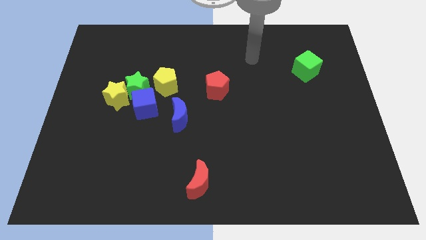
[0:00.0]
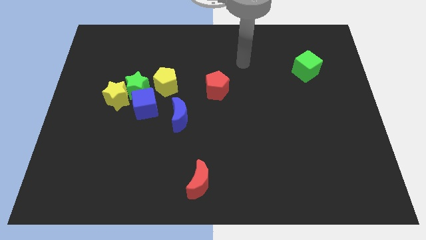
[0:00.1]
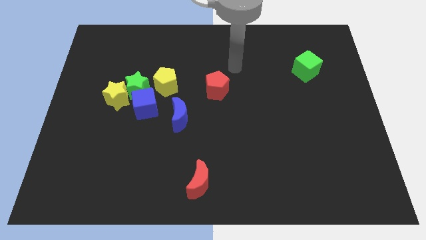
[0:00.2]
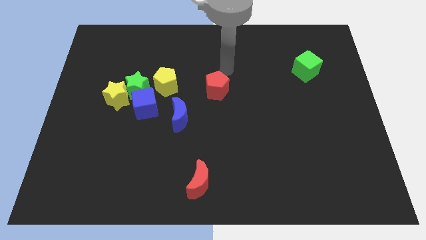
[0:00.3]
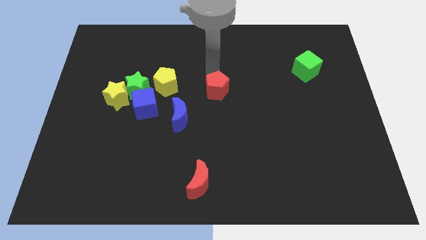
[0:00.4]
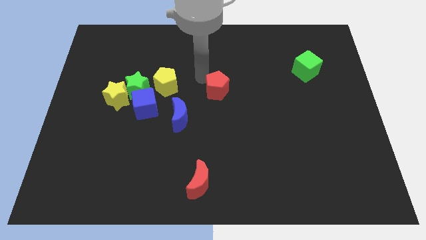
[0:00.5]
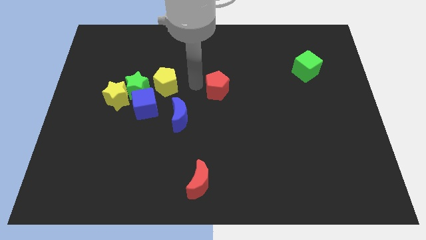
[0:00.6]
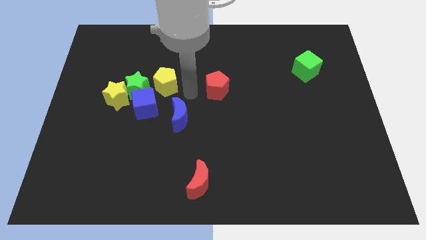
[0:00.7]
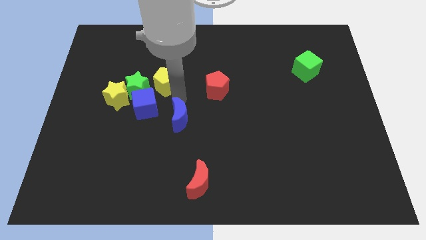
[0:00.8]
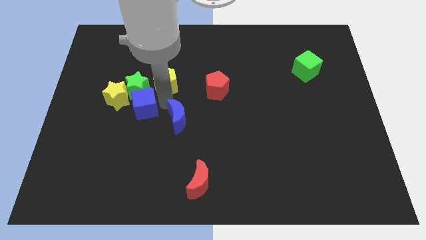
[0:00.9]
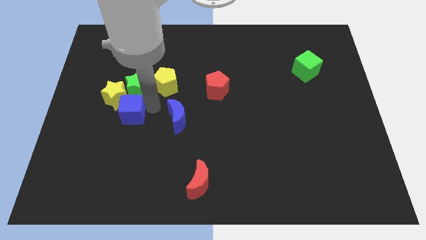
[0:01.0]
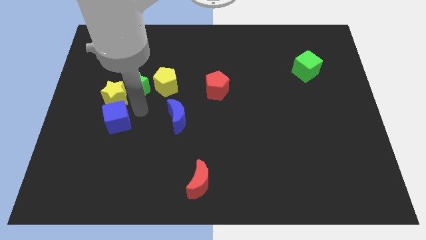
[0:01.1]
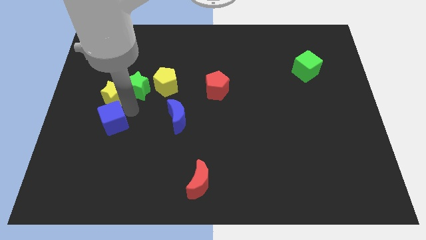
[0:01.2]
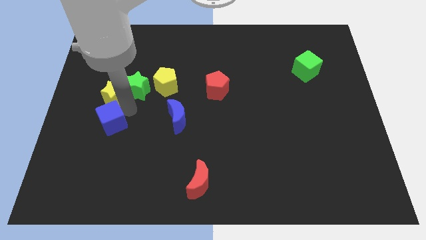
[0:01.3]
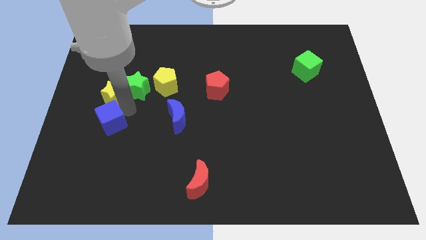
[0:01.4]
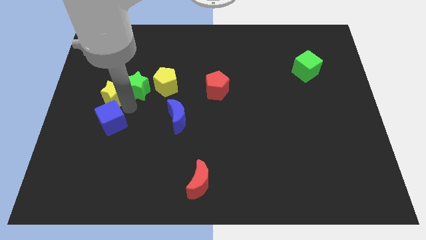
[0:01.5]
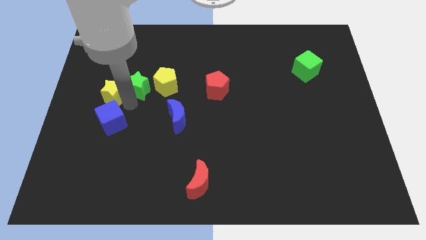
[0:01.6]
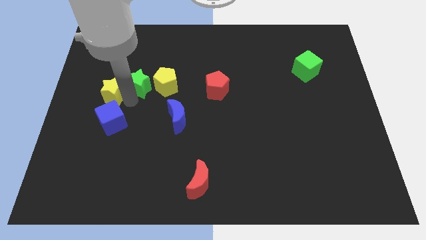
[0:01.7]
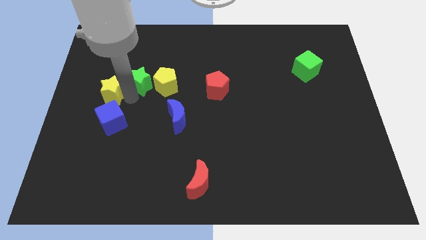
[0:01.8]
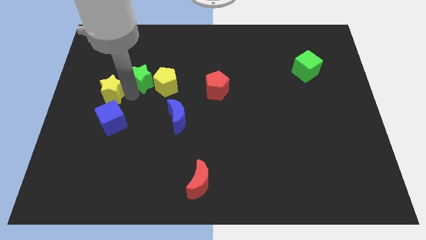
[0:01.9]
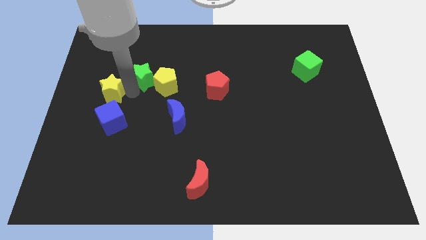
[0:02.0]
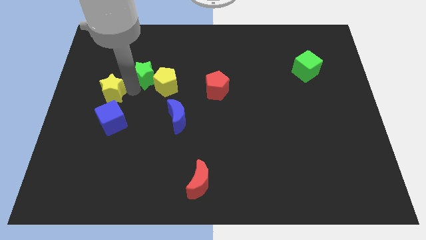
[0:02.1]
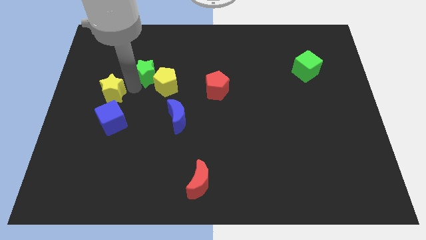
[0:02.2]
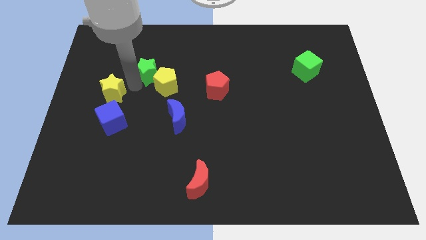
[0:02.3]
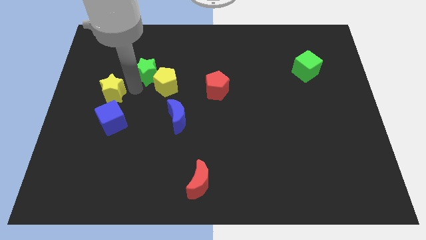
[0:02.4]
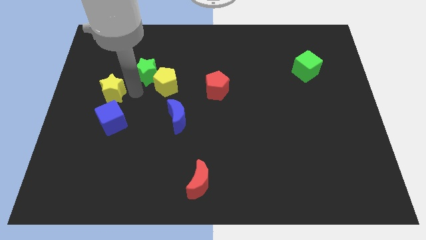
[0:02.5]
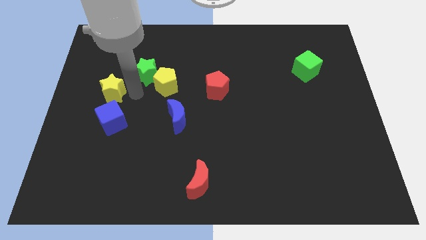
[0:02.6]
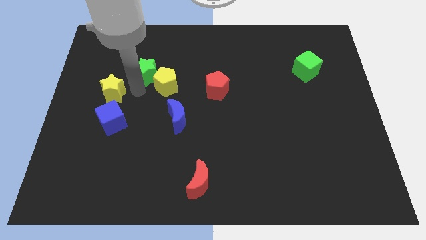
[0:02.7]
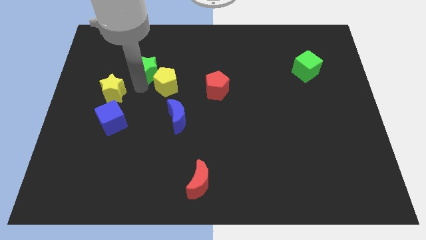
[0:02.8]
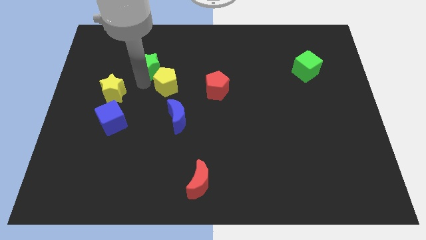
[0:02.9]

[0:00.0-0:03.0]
separate the green star from the group of blocks

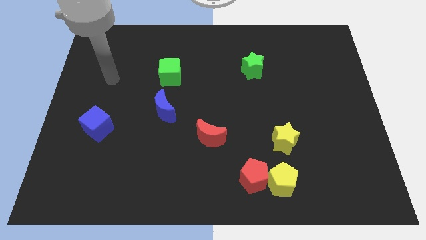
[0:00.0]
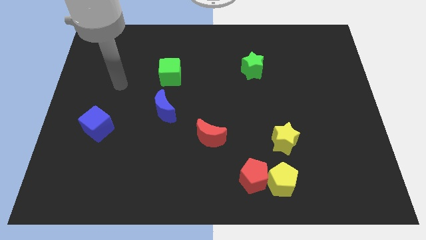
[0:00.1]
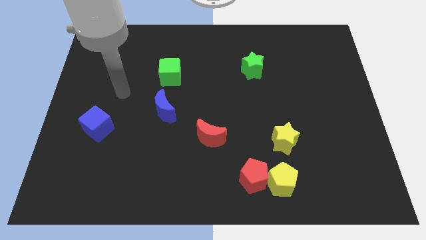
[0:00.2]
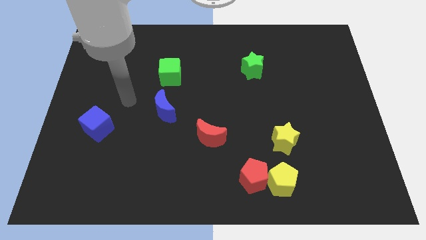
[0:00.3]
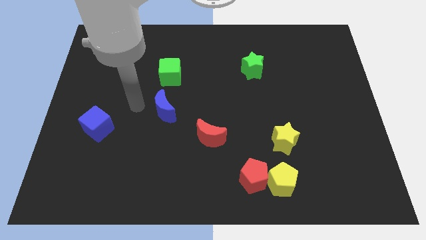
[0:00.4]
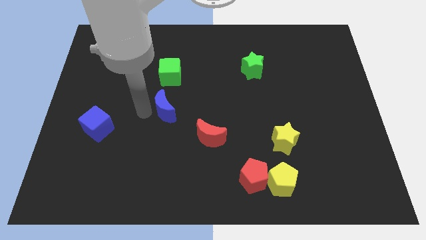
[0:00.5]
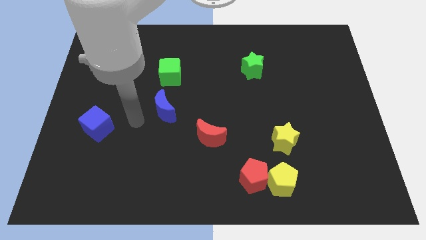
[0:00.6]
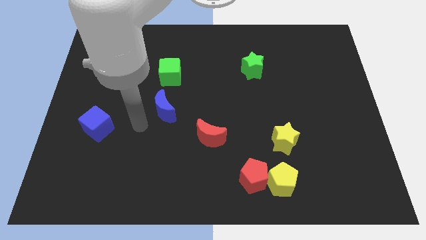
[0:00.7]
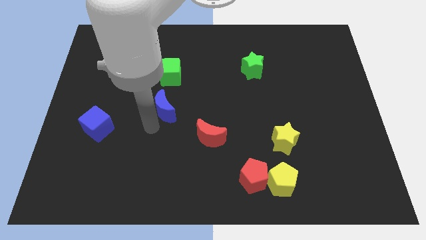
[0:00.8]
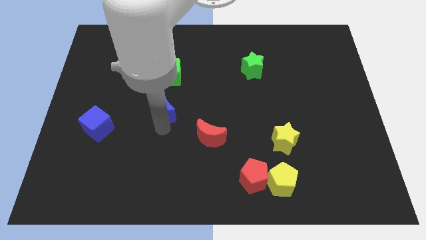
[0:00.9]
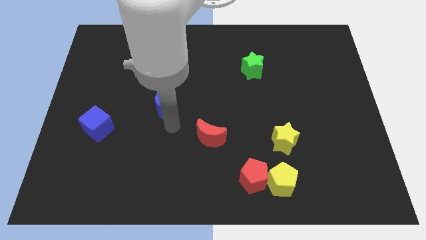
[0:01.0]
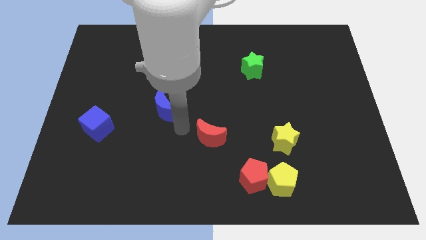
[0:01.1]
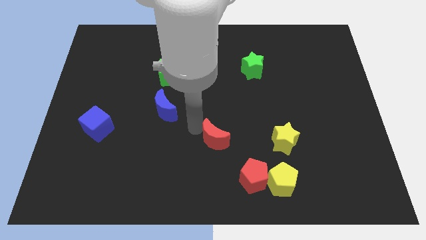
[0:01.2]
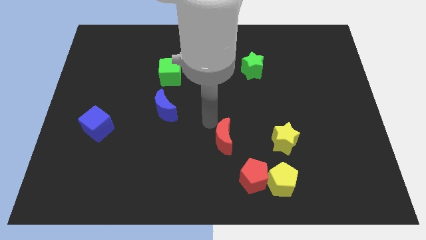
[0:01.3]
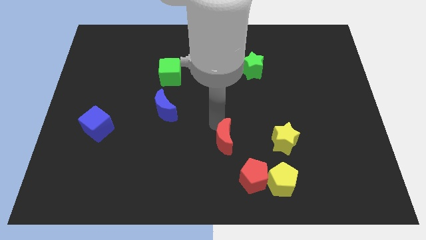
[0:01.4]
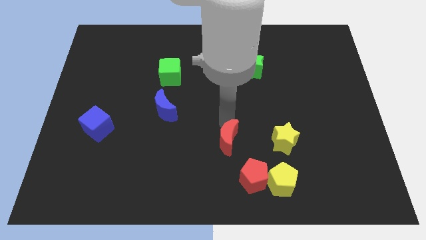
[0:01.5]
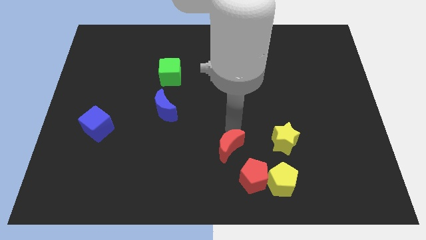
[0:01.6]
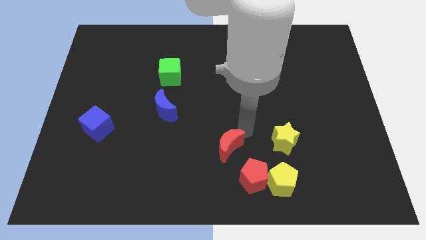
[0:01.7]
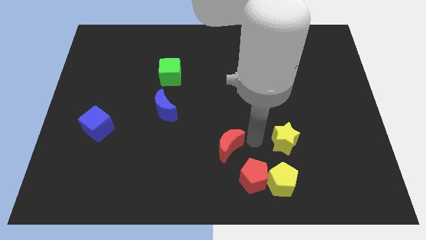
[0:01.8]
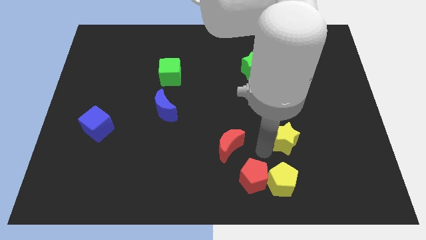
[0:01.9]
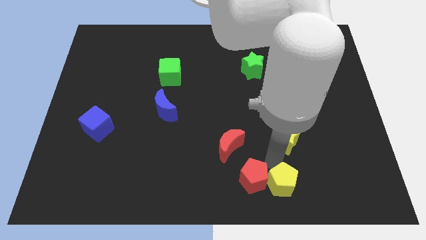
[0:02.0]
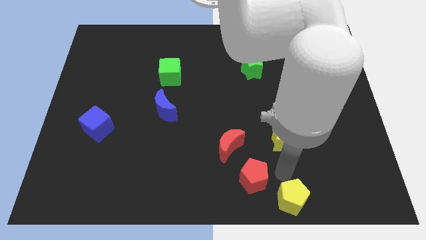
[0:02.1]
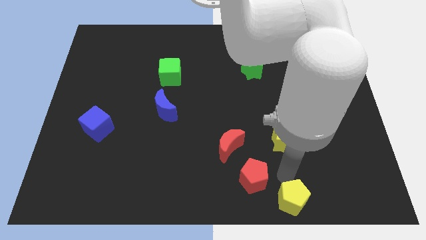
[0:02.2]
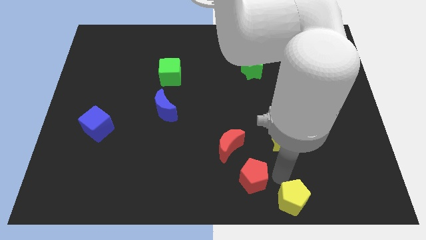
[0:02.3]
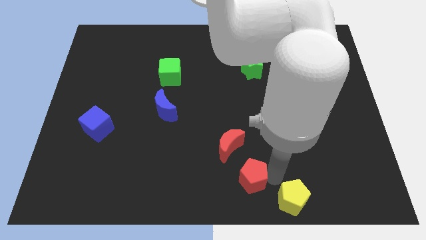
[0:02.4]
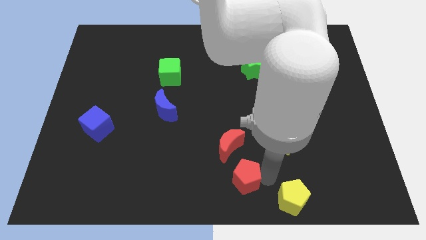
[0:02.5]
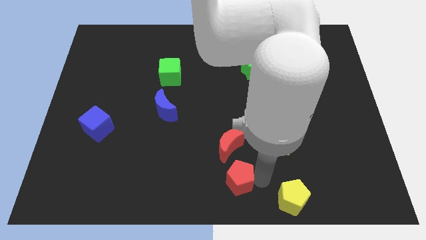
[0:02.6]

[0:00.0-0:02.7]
separate the red pentagon from the yellow pentagon

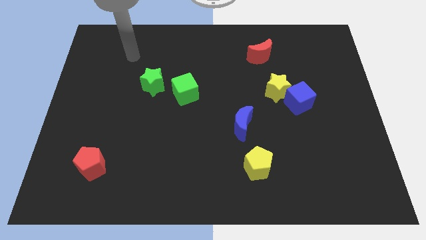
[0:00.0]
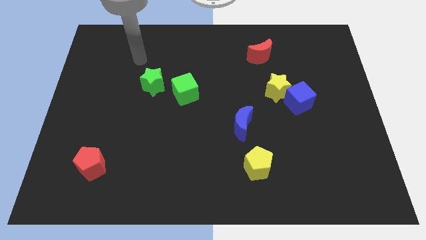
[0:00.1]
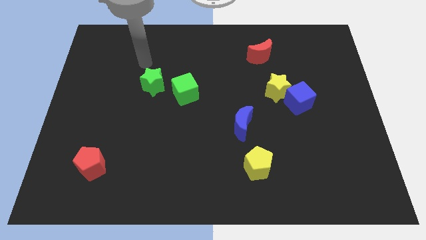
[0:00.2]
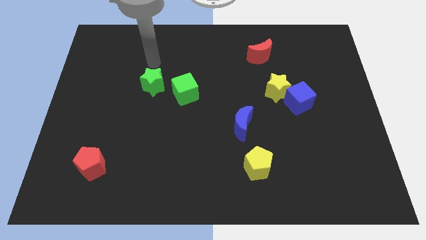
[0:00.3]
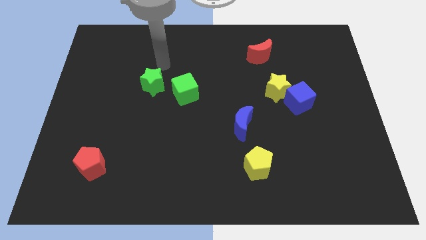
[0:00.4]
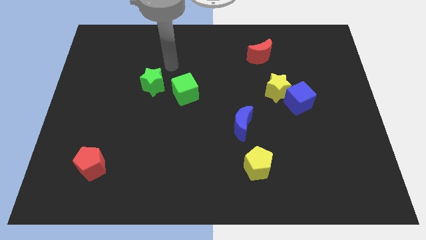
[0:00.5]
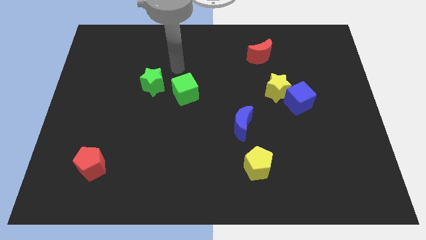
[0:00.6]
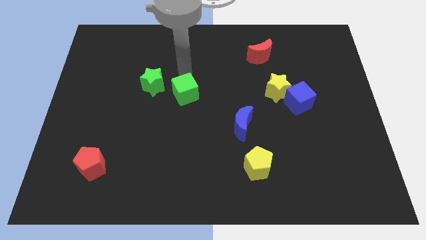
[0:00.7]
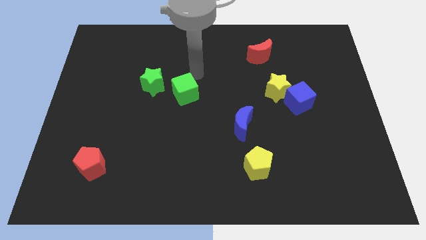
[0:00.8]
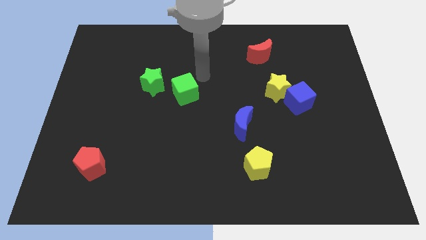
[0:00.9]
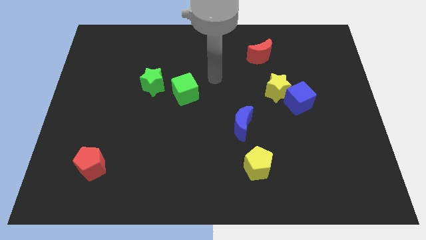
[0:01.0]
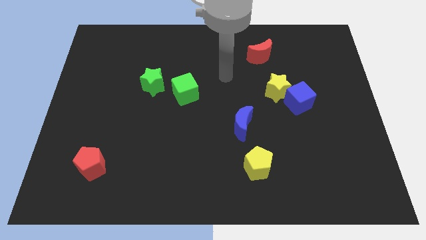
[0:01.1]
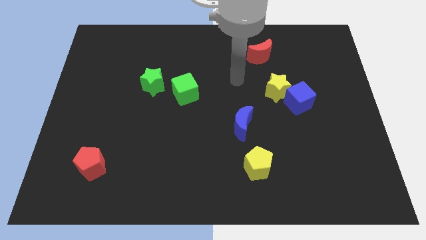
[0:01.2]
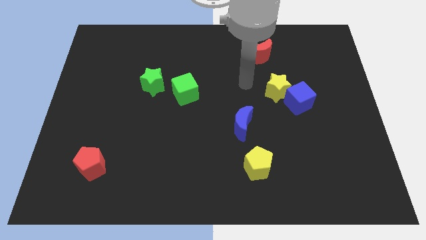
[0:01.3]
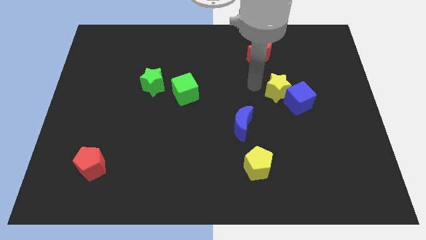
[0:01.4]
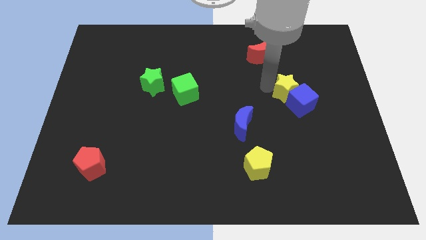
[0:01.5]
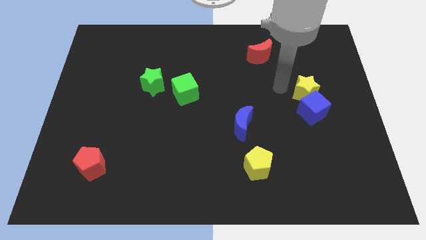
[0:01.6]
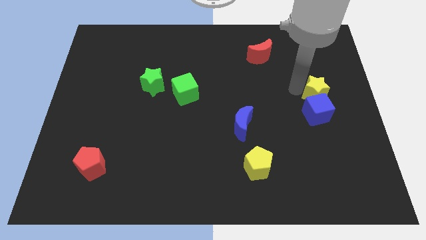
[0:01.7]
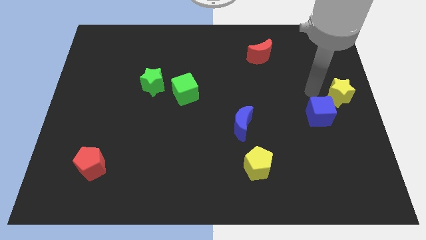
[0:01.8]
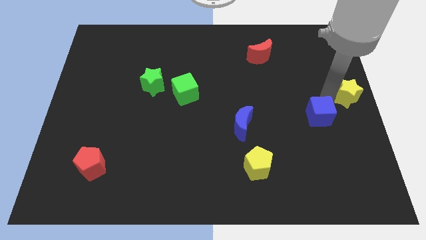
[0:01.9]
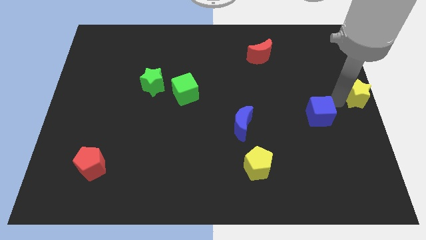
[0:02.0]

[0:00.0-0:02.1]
separate the blue cube from the yellow star

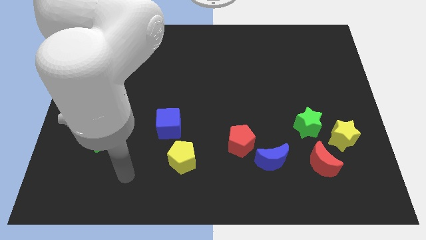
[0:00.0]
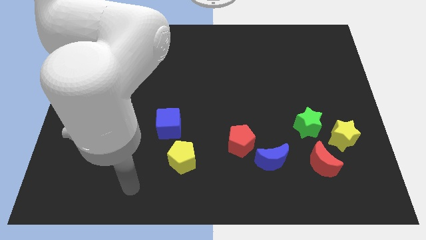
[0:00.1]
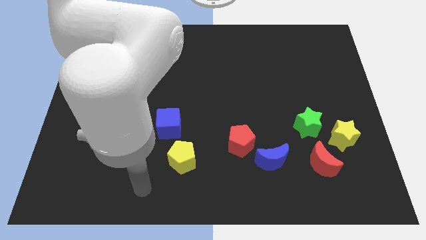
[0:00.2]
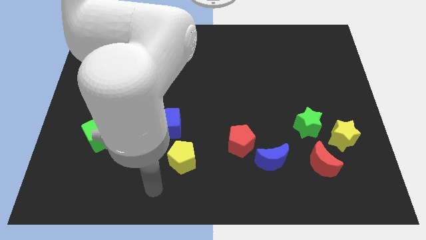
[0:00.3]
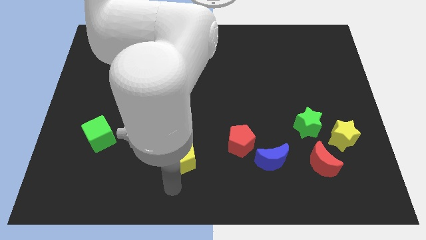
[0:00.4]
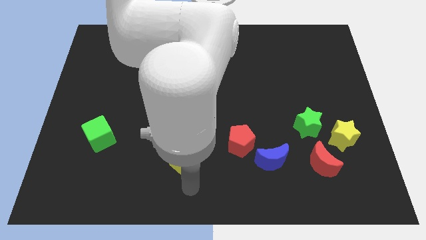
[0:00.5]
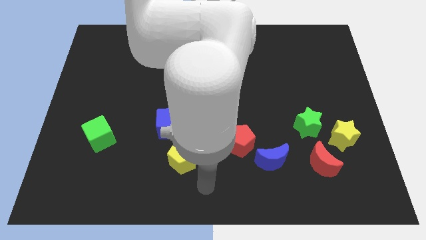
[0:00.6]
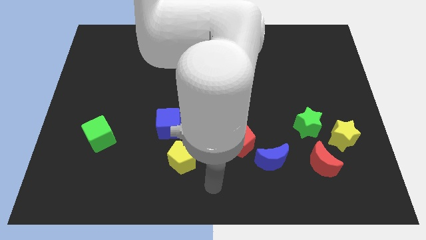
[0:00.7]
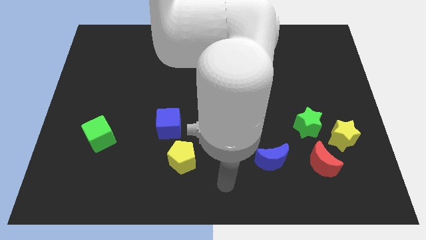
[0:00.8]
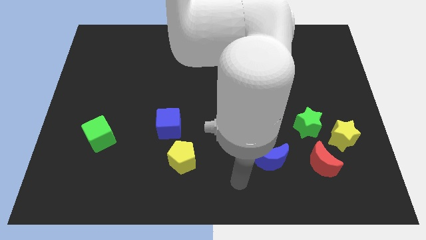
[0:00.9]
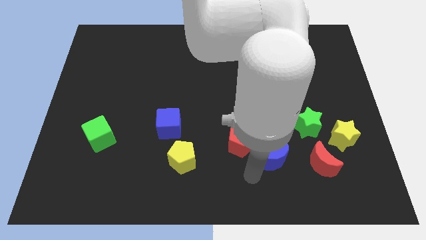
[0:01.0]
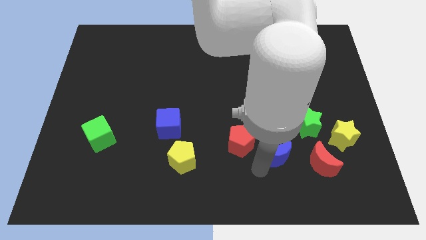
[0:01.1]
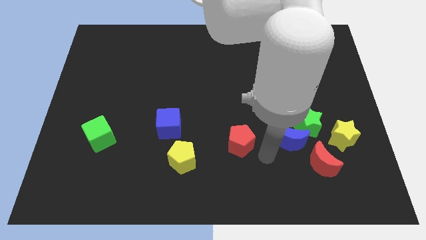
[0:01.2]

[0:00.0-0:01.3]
pull the red pentagon apart from the blue moon

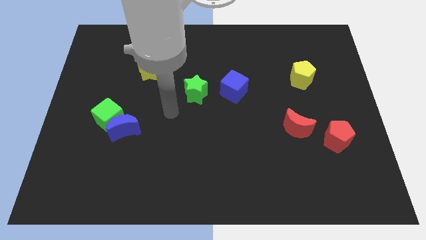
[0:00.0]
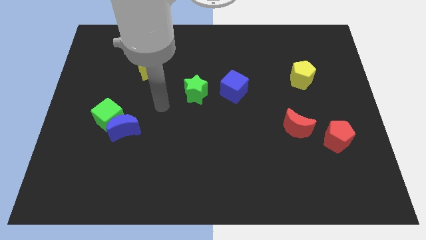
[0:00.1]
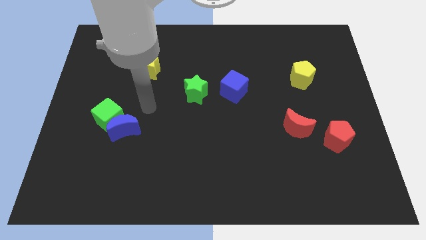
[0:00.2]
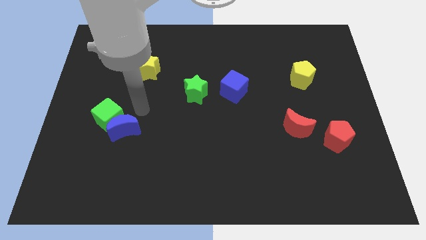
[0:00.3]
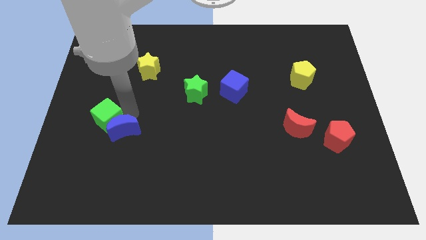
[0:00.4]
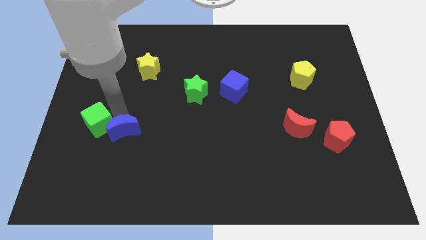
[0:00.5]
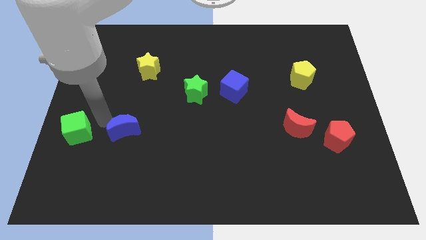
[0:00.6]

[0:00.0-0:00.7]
separate the blue moon from the green cube
